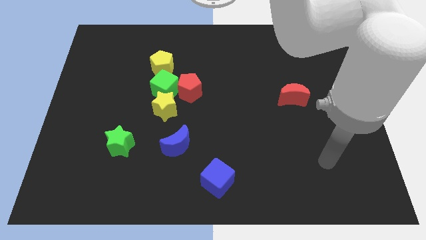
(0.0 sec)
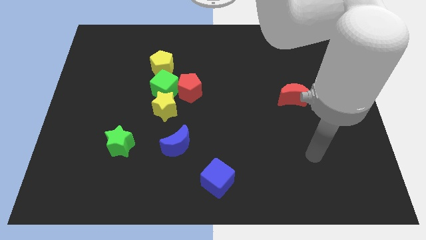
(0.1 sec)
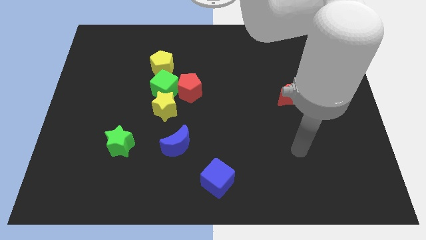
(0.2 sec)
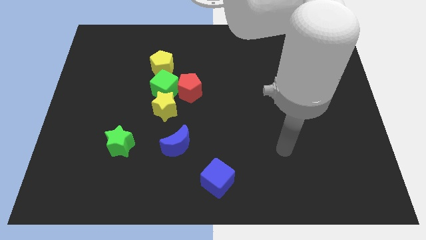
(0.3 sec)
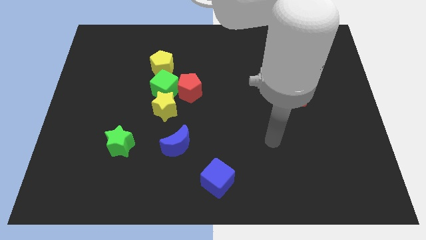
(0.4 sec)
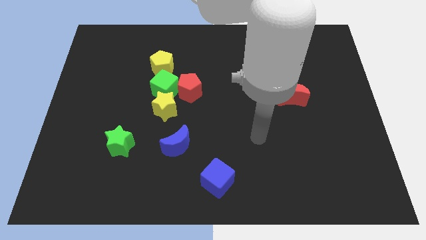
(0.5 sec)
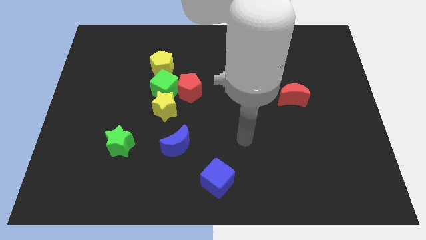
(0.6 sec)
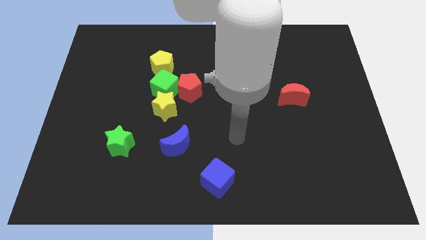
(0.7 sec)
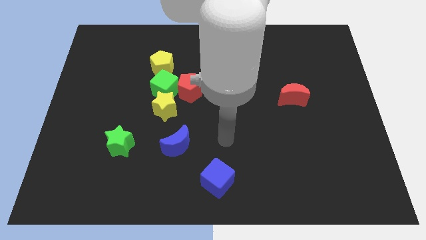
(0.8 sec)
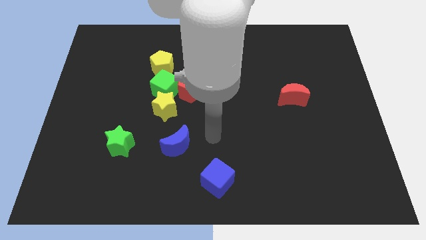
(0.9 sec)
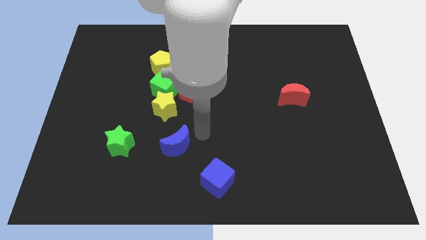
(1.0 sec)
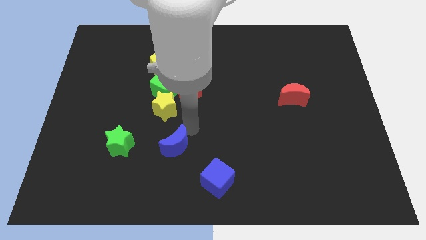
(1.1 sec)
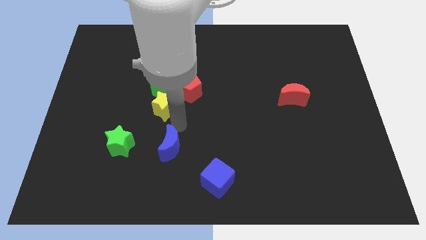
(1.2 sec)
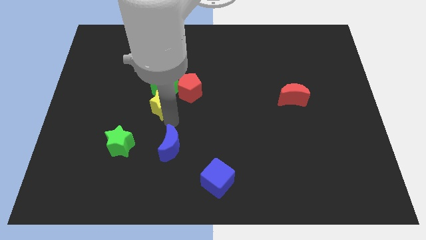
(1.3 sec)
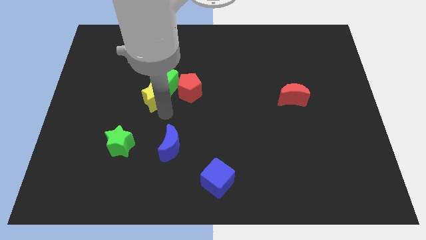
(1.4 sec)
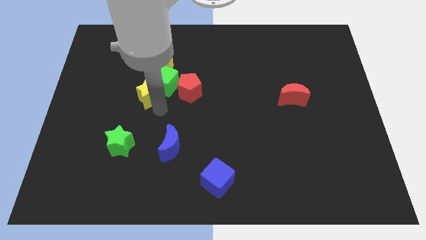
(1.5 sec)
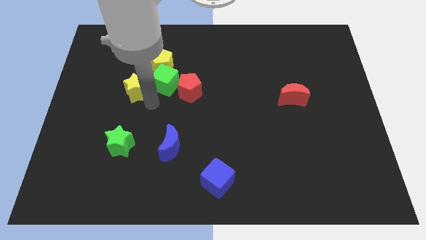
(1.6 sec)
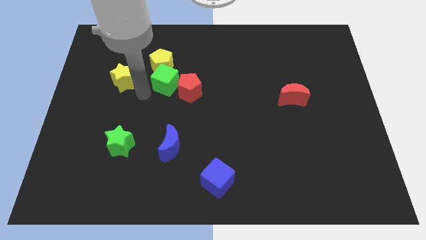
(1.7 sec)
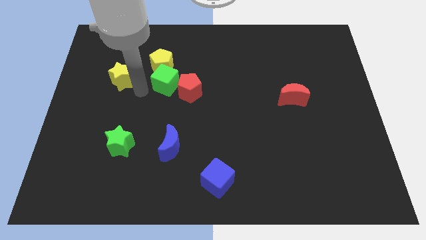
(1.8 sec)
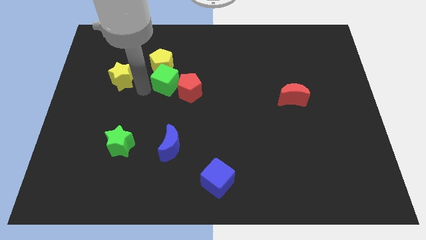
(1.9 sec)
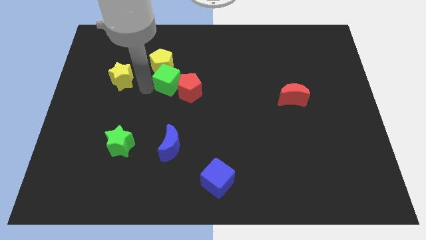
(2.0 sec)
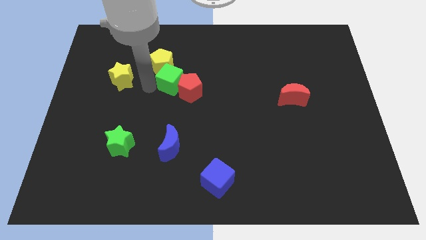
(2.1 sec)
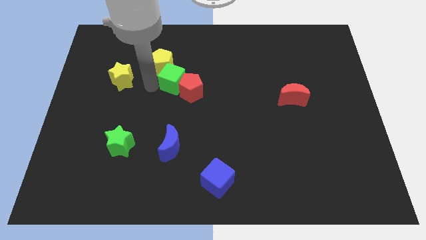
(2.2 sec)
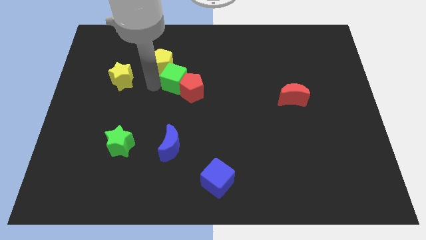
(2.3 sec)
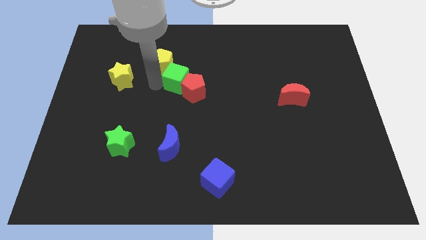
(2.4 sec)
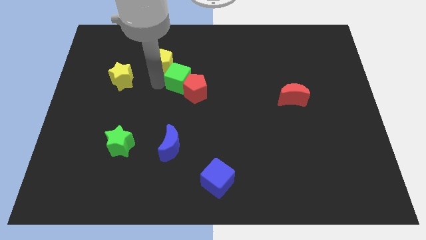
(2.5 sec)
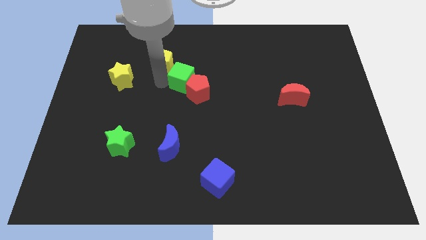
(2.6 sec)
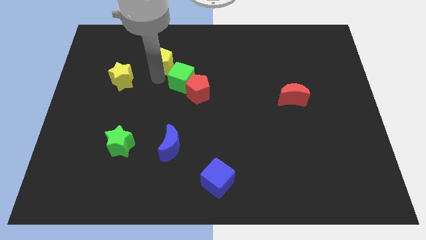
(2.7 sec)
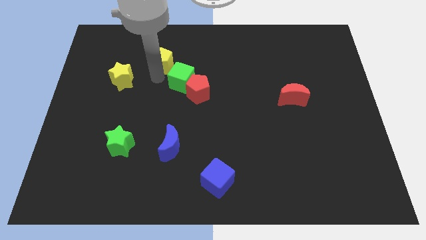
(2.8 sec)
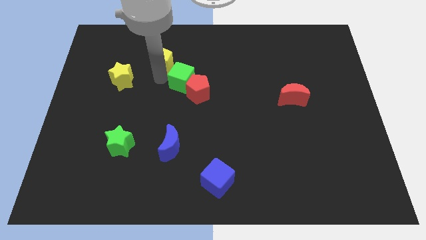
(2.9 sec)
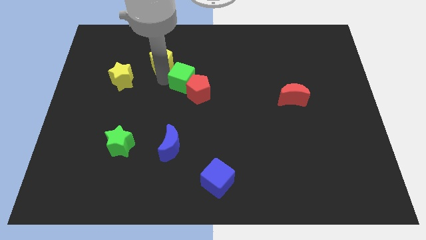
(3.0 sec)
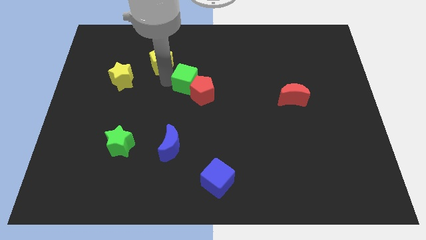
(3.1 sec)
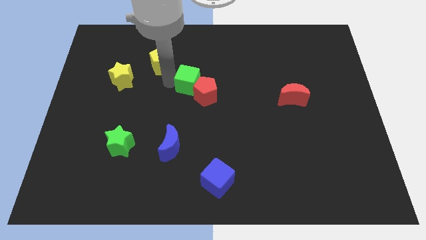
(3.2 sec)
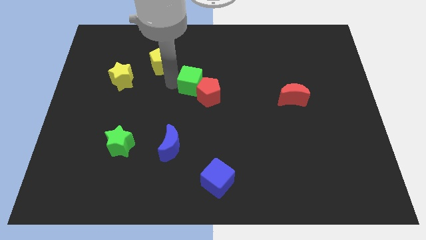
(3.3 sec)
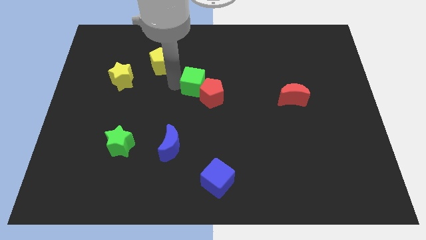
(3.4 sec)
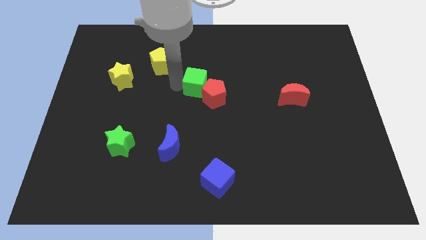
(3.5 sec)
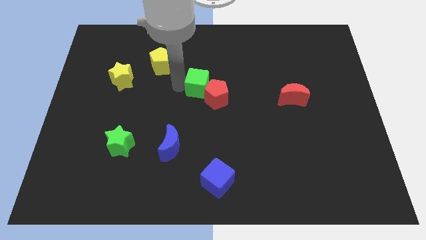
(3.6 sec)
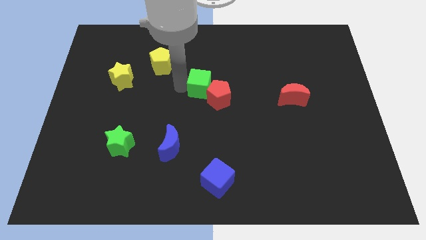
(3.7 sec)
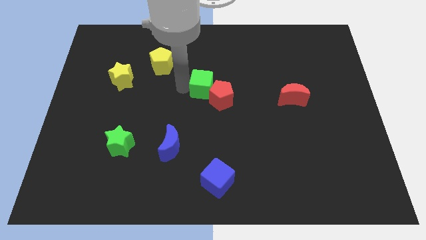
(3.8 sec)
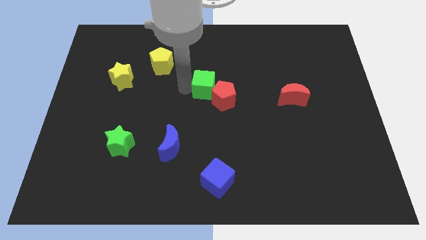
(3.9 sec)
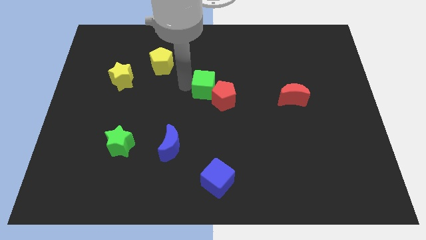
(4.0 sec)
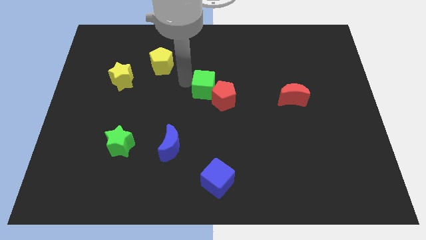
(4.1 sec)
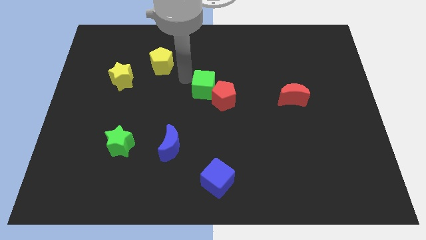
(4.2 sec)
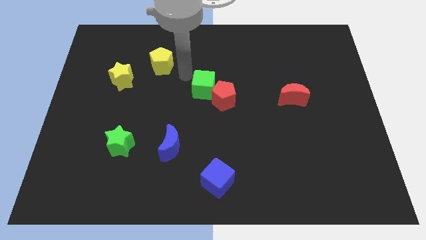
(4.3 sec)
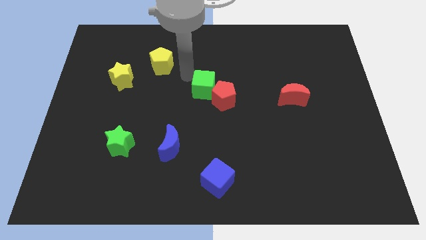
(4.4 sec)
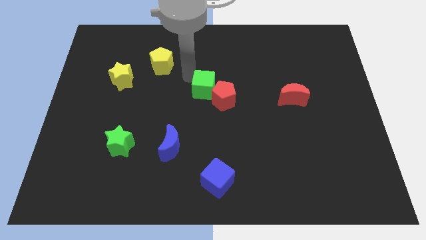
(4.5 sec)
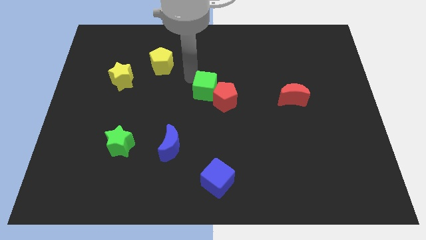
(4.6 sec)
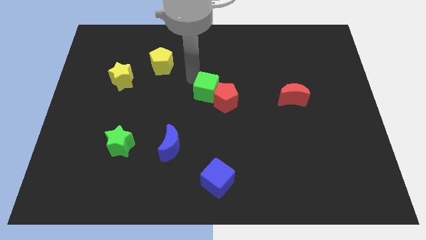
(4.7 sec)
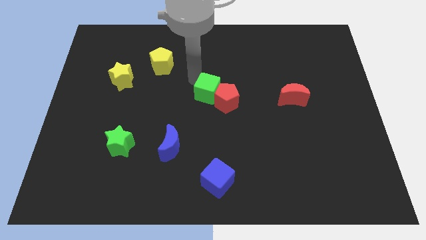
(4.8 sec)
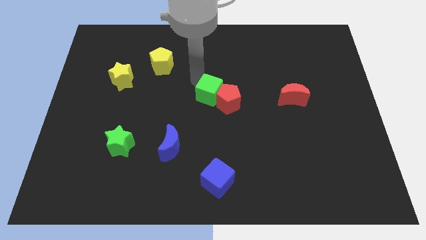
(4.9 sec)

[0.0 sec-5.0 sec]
slide the green cube a little bit down and then right

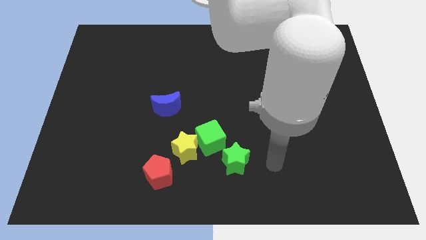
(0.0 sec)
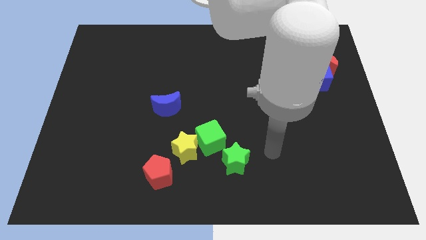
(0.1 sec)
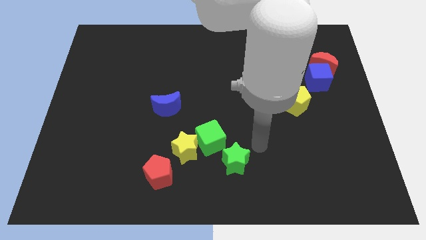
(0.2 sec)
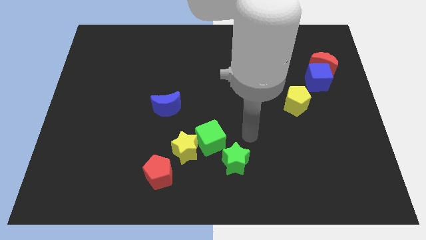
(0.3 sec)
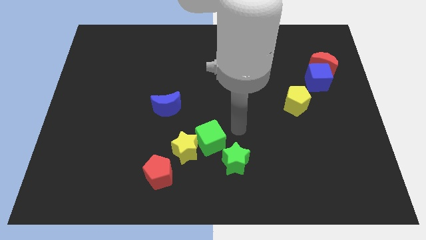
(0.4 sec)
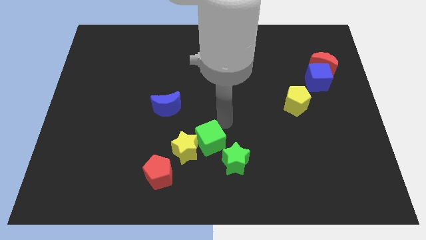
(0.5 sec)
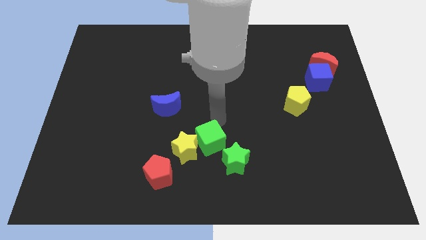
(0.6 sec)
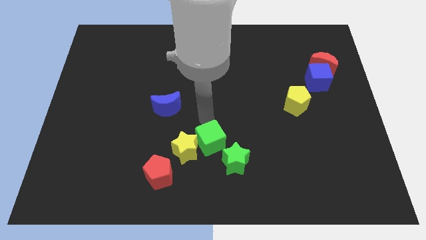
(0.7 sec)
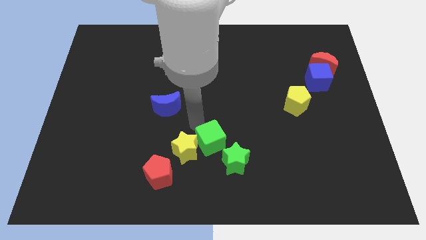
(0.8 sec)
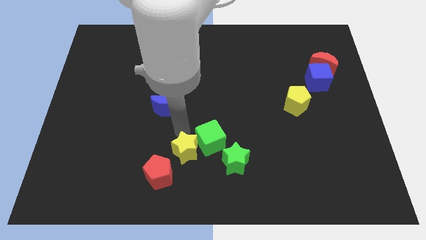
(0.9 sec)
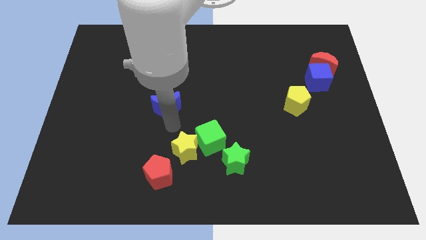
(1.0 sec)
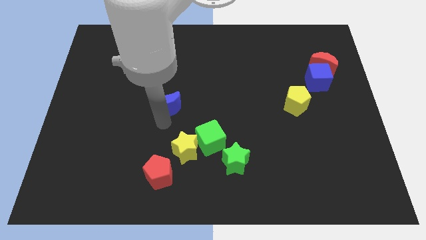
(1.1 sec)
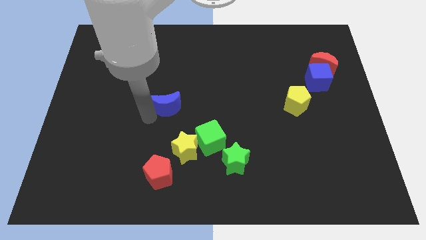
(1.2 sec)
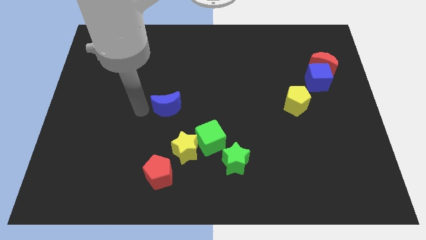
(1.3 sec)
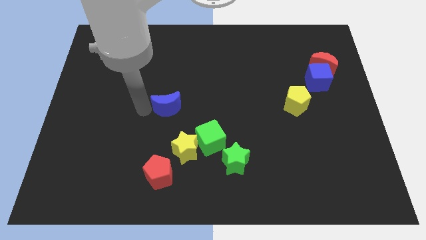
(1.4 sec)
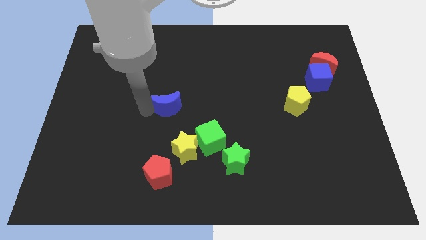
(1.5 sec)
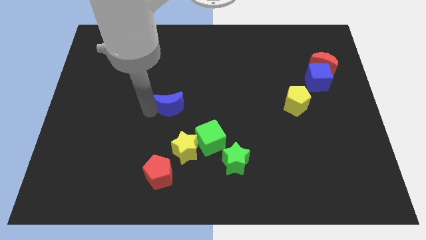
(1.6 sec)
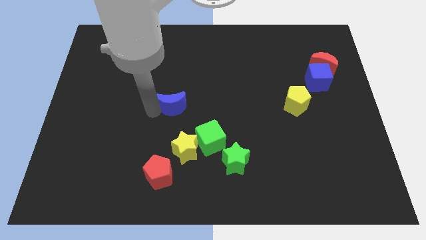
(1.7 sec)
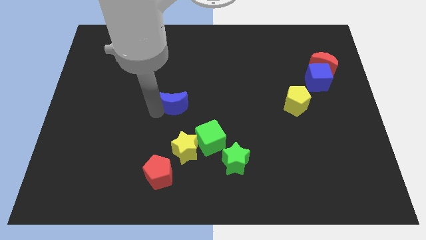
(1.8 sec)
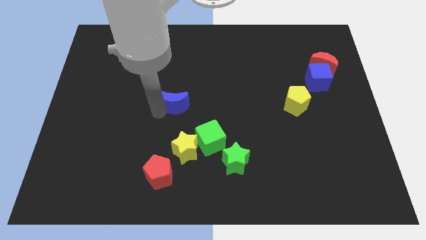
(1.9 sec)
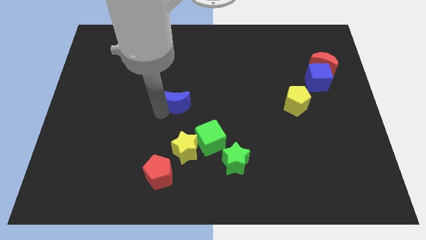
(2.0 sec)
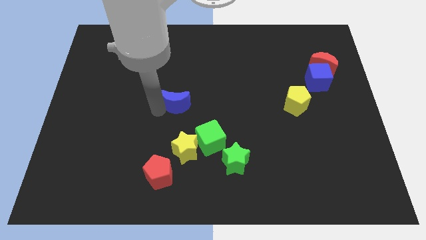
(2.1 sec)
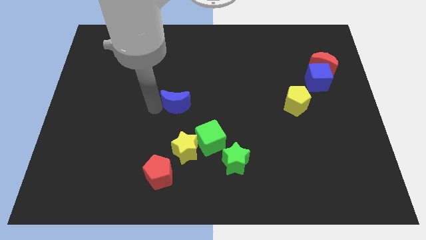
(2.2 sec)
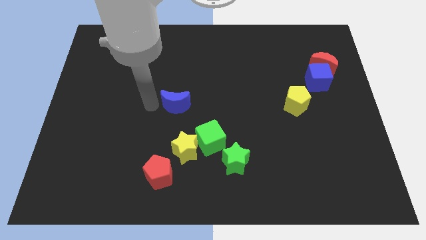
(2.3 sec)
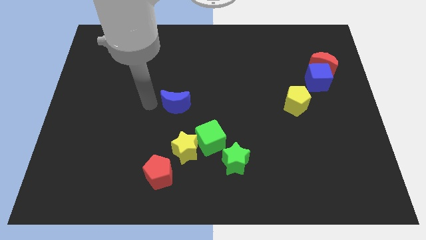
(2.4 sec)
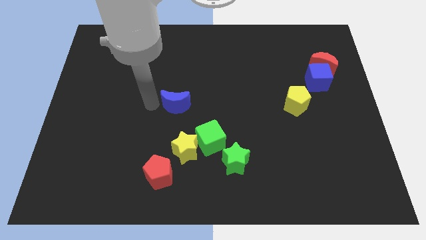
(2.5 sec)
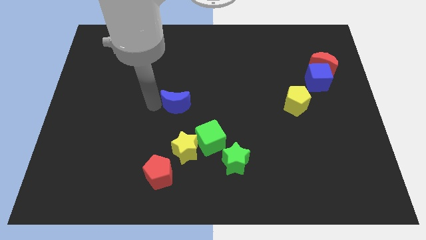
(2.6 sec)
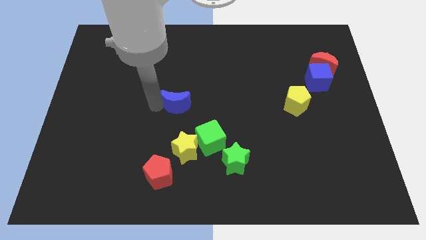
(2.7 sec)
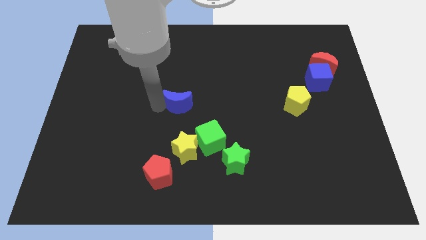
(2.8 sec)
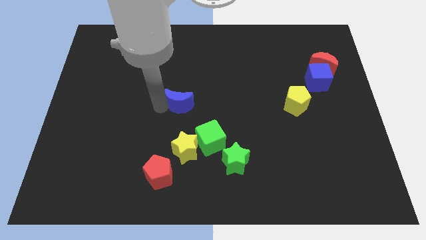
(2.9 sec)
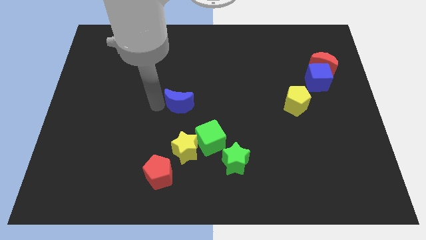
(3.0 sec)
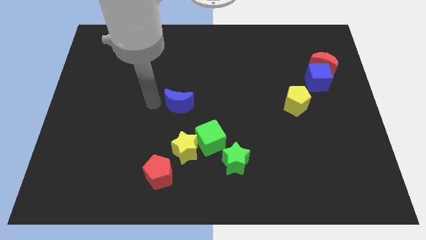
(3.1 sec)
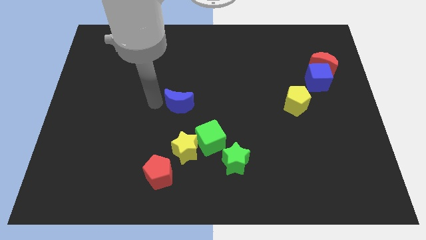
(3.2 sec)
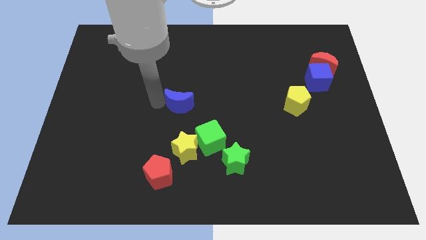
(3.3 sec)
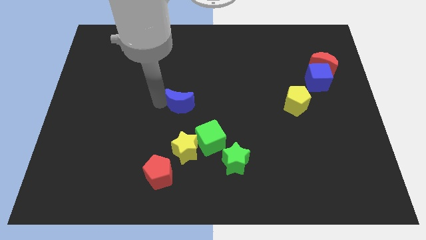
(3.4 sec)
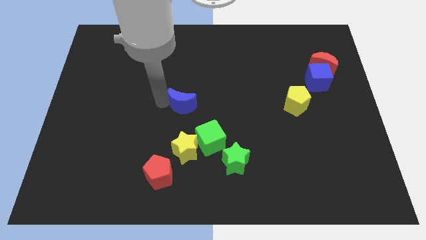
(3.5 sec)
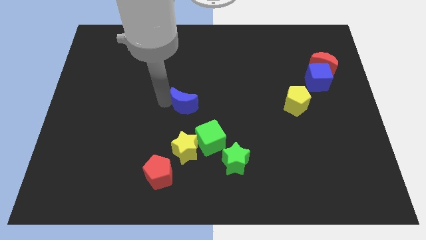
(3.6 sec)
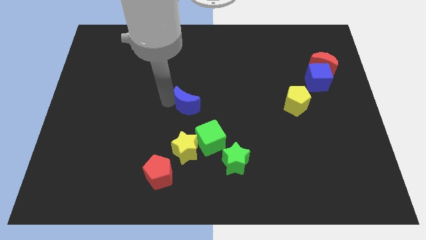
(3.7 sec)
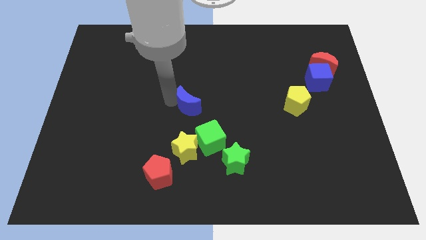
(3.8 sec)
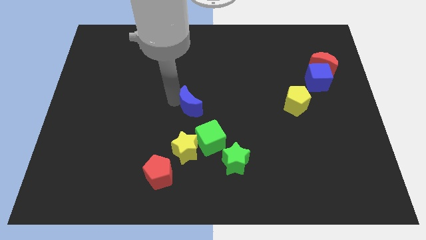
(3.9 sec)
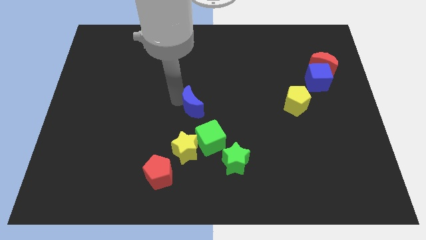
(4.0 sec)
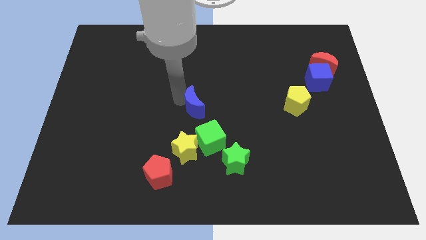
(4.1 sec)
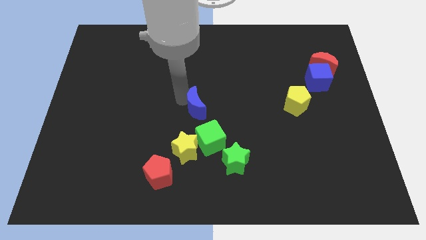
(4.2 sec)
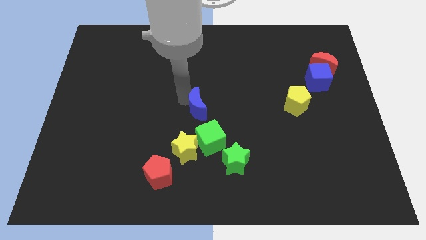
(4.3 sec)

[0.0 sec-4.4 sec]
slightly push the blue moon right
